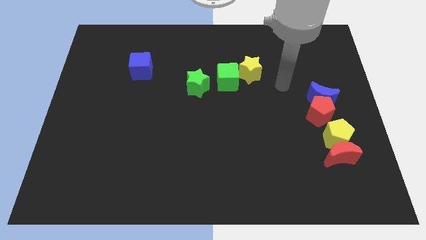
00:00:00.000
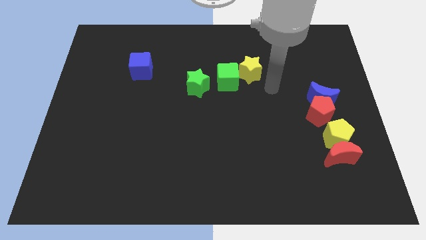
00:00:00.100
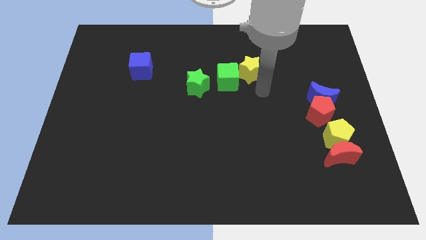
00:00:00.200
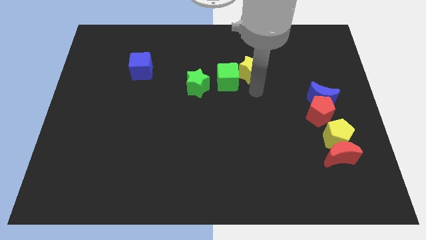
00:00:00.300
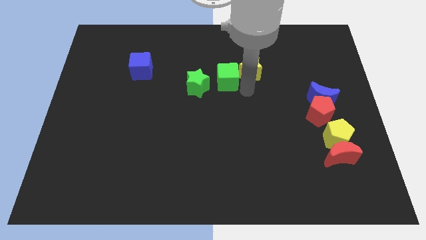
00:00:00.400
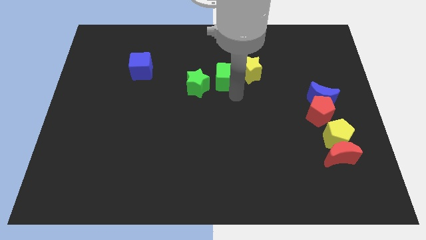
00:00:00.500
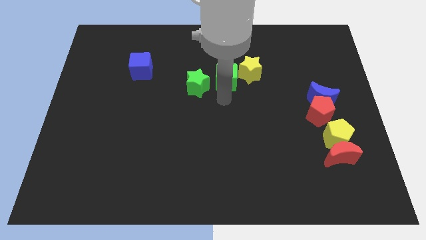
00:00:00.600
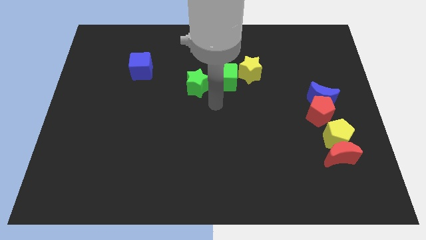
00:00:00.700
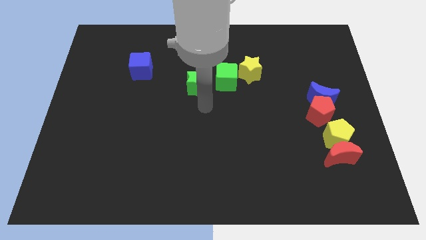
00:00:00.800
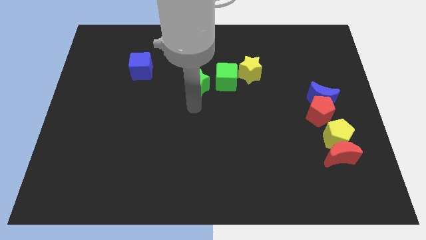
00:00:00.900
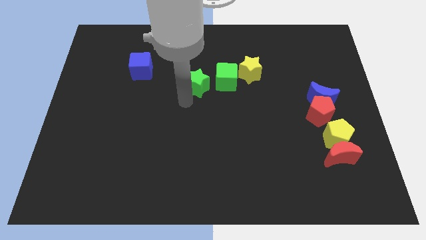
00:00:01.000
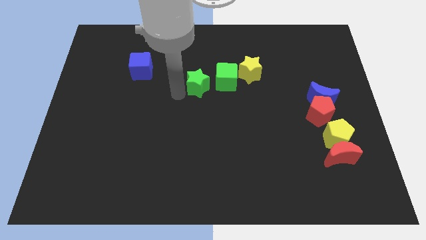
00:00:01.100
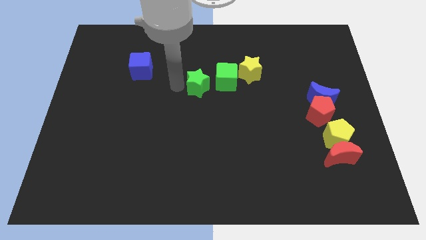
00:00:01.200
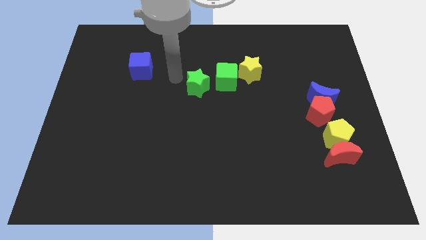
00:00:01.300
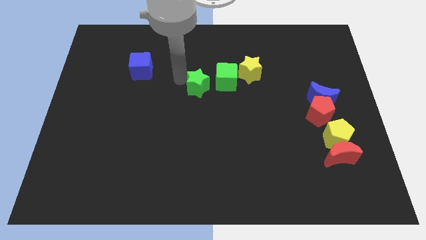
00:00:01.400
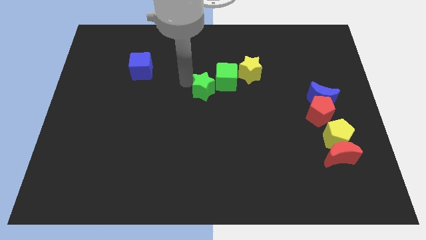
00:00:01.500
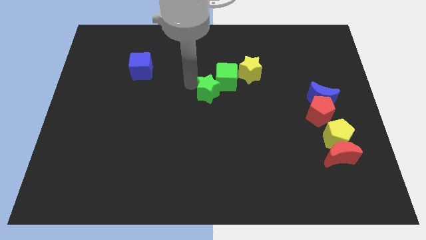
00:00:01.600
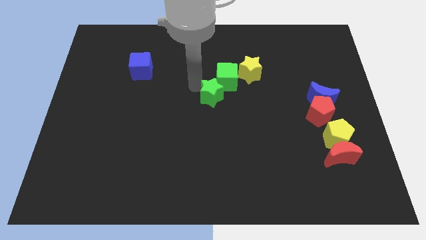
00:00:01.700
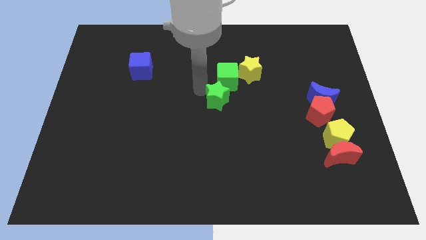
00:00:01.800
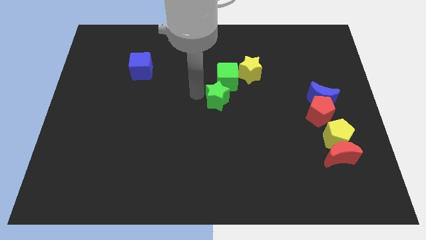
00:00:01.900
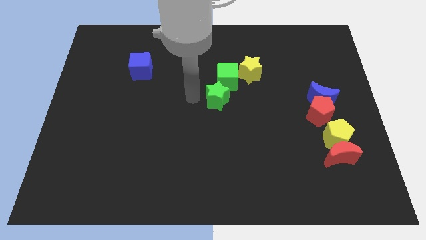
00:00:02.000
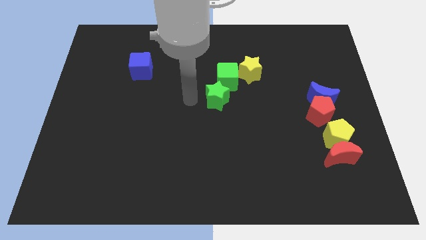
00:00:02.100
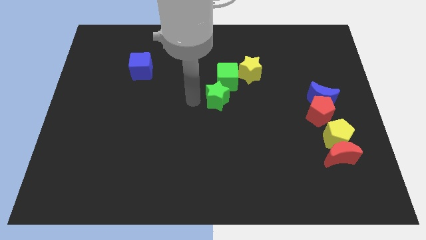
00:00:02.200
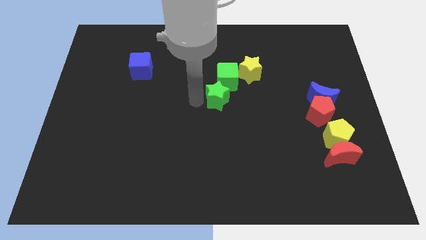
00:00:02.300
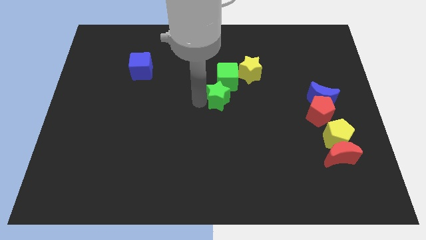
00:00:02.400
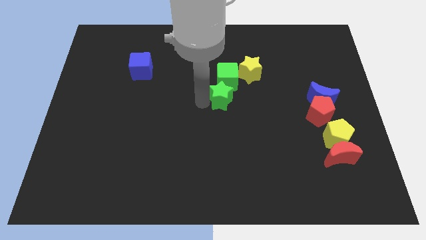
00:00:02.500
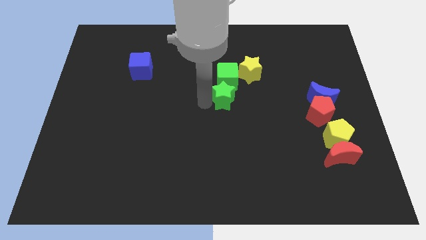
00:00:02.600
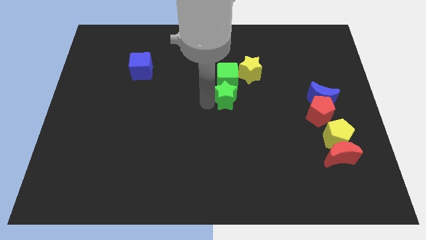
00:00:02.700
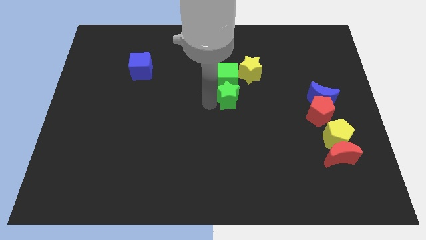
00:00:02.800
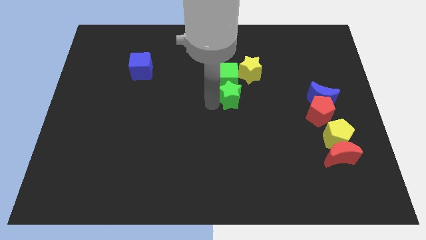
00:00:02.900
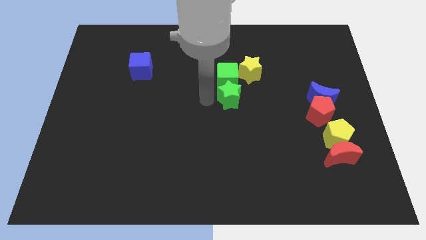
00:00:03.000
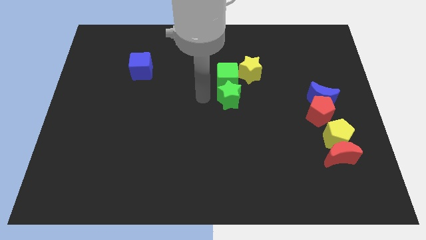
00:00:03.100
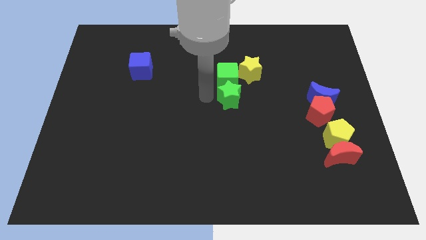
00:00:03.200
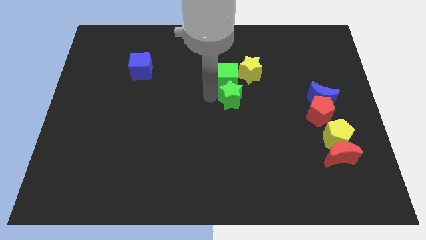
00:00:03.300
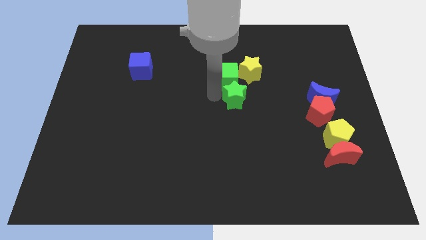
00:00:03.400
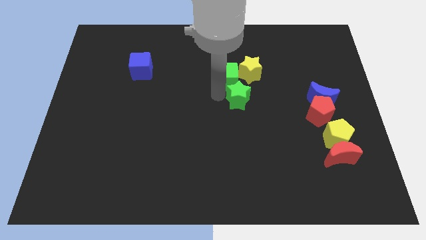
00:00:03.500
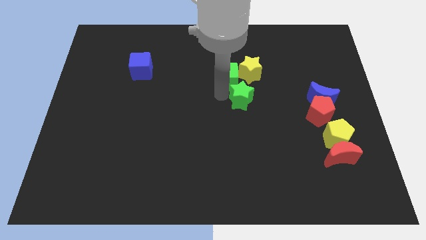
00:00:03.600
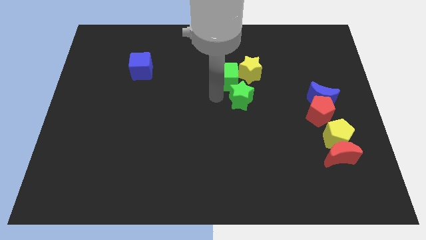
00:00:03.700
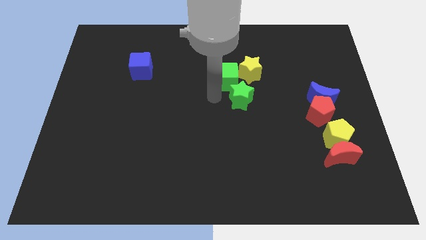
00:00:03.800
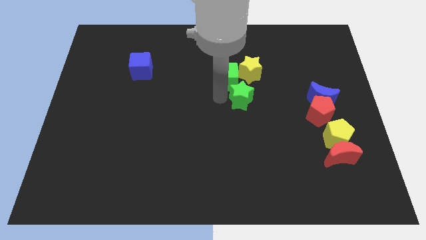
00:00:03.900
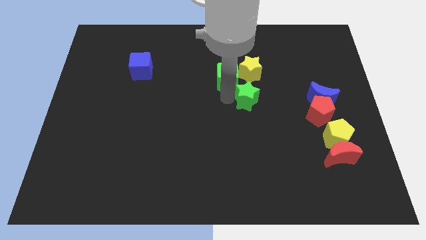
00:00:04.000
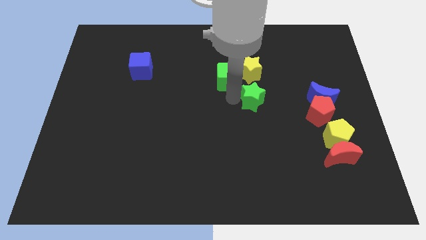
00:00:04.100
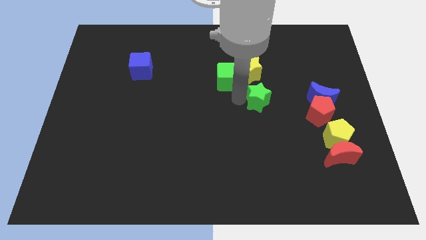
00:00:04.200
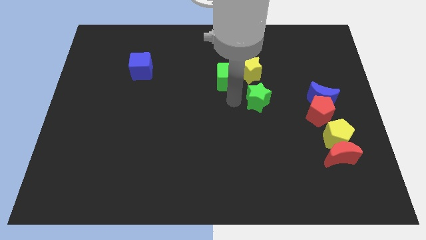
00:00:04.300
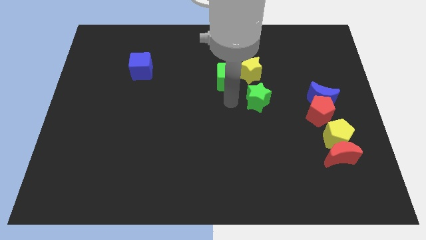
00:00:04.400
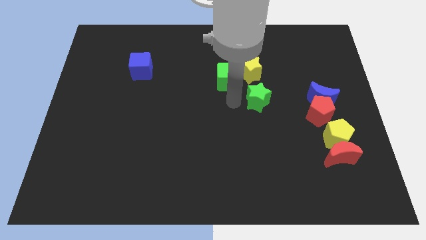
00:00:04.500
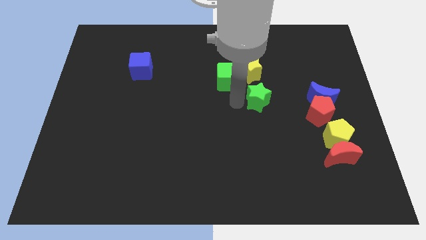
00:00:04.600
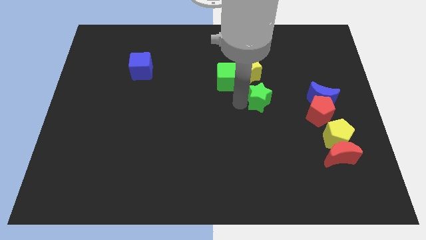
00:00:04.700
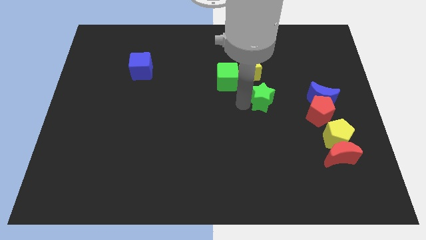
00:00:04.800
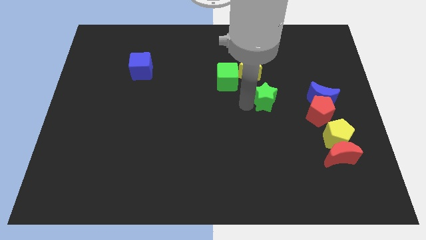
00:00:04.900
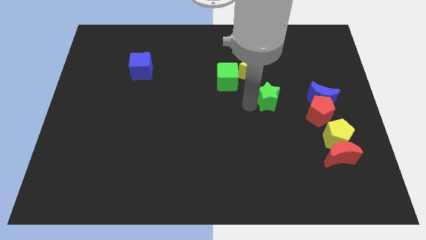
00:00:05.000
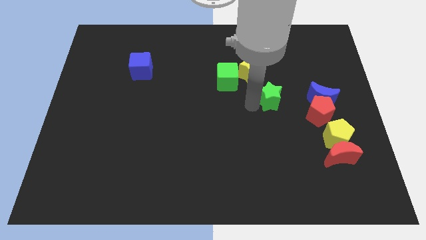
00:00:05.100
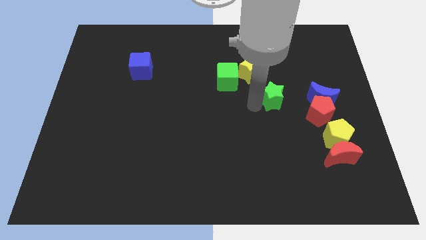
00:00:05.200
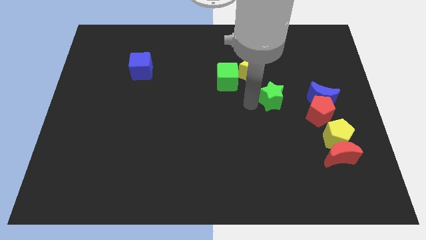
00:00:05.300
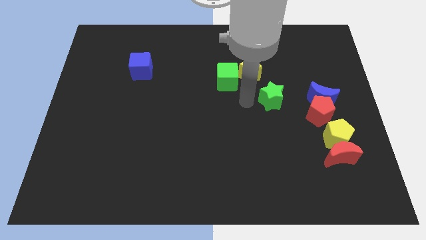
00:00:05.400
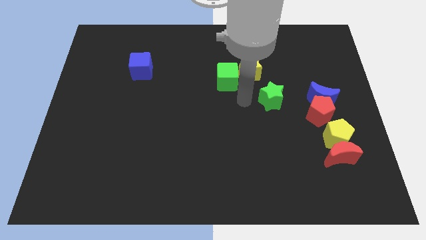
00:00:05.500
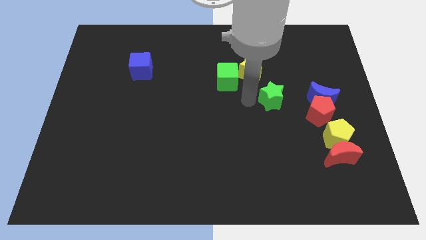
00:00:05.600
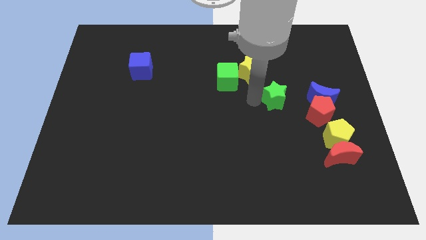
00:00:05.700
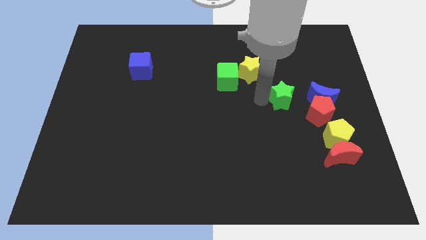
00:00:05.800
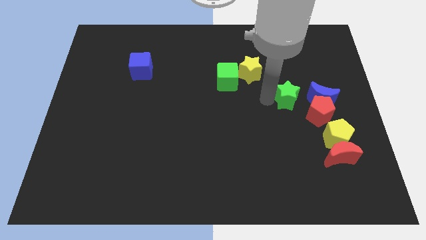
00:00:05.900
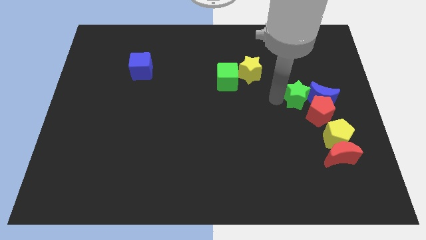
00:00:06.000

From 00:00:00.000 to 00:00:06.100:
slide the green star to the blue moon
